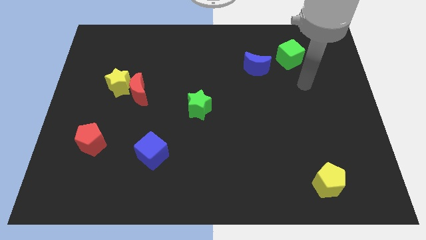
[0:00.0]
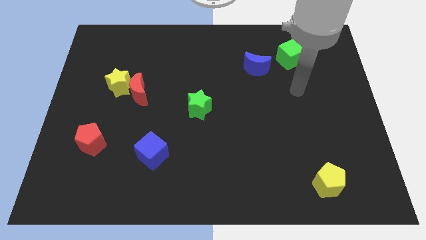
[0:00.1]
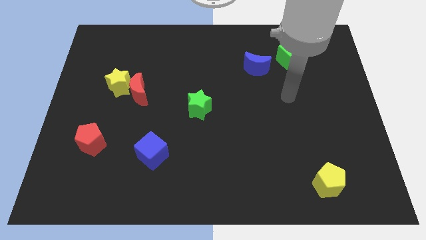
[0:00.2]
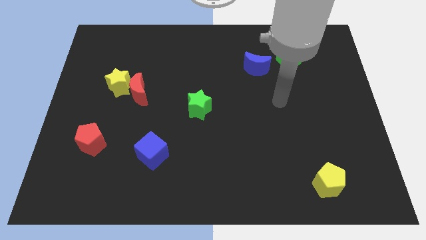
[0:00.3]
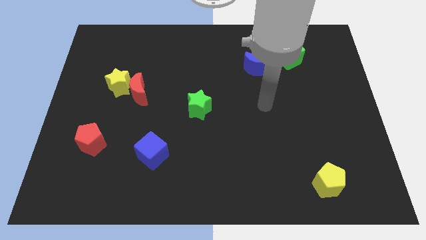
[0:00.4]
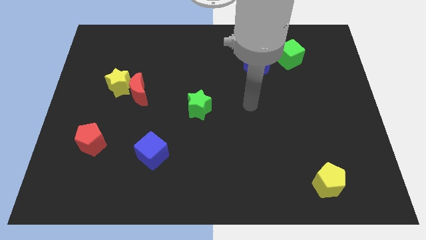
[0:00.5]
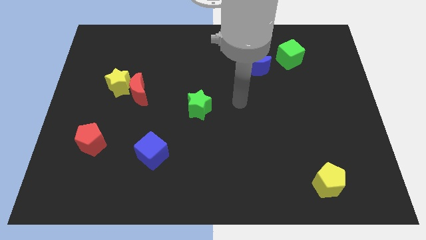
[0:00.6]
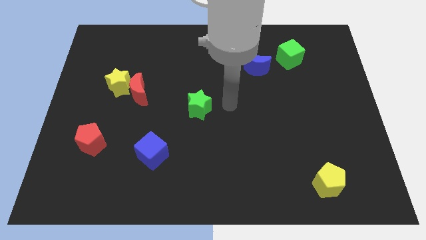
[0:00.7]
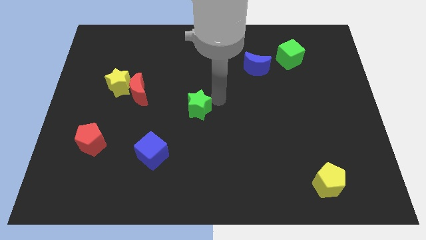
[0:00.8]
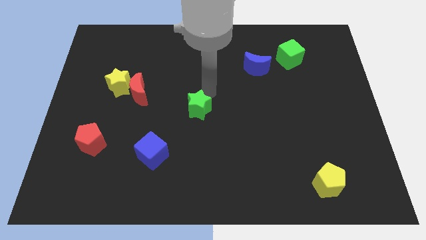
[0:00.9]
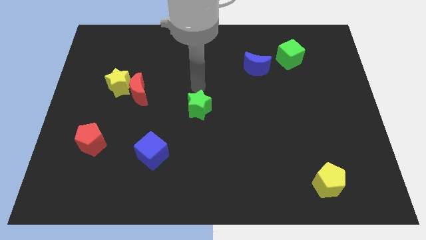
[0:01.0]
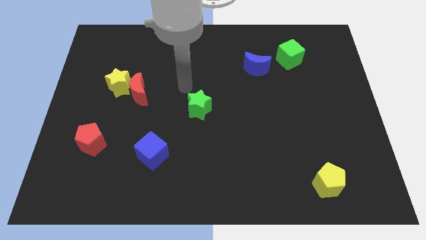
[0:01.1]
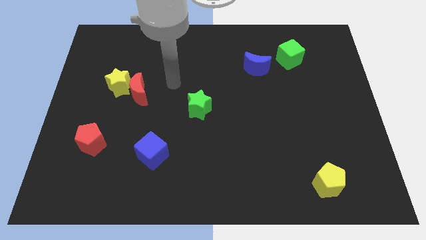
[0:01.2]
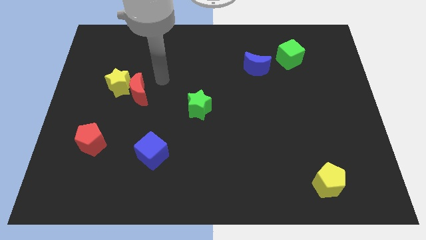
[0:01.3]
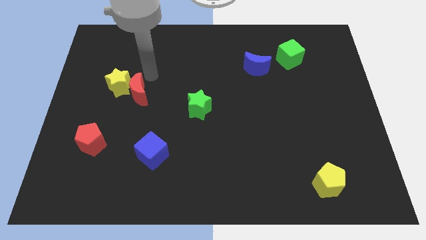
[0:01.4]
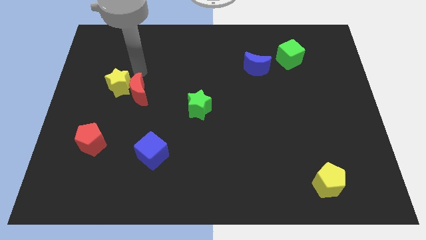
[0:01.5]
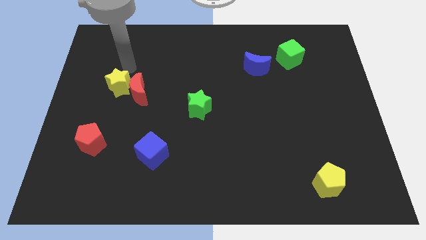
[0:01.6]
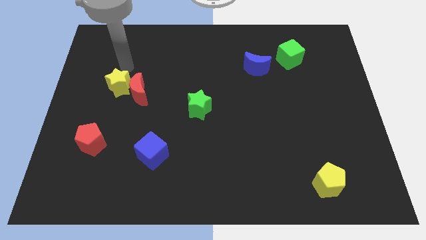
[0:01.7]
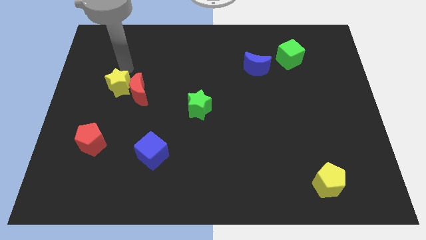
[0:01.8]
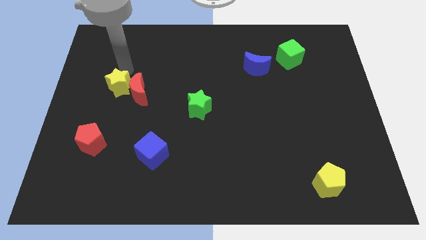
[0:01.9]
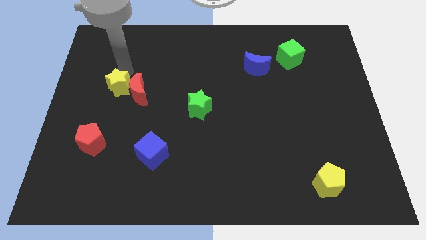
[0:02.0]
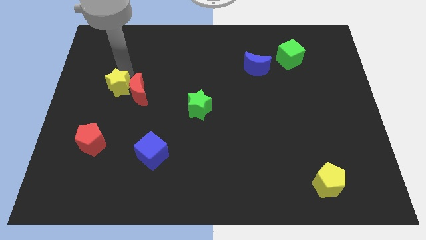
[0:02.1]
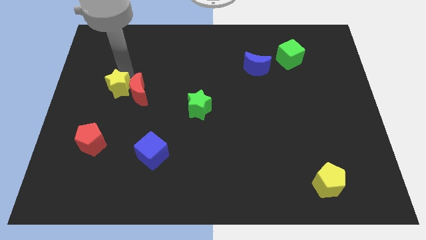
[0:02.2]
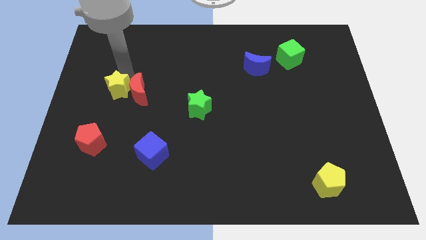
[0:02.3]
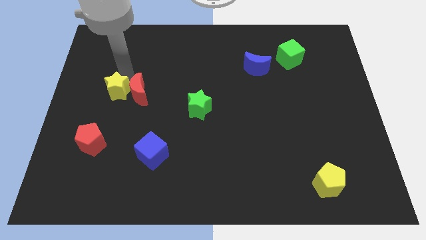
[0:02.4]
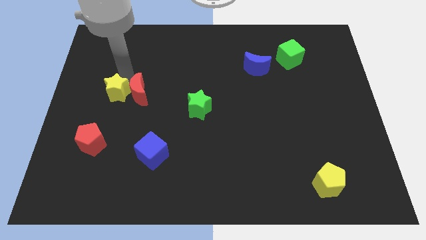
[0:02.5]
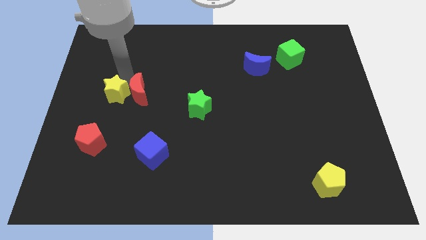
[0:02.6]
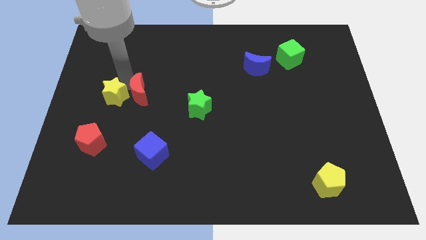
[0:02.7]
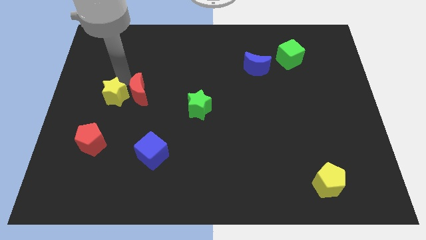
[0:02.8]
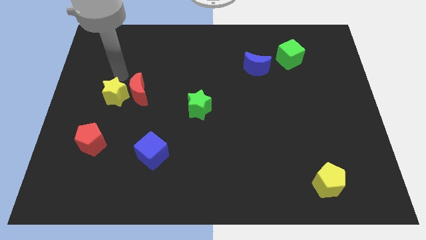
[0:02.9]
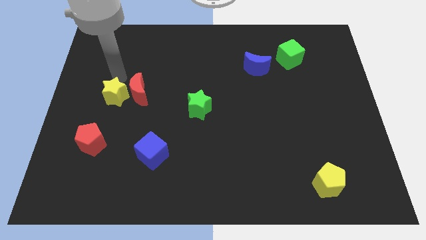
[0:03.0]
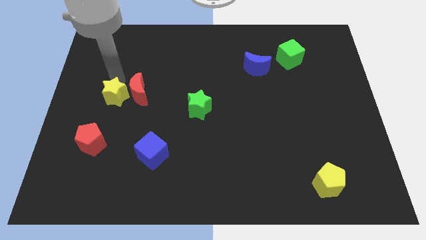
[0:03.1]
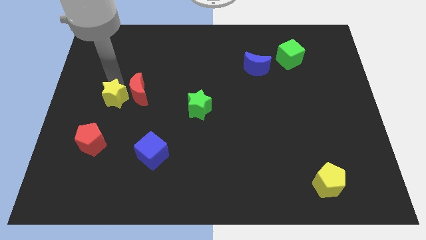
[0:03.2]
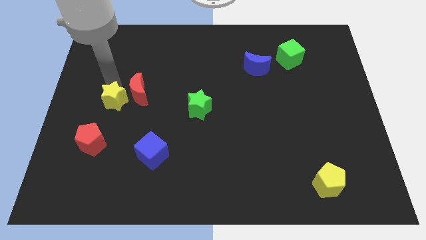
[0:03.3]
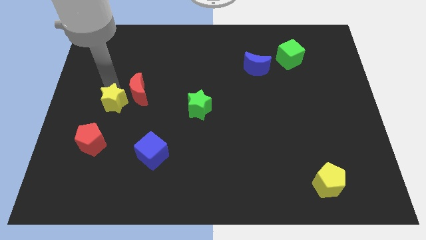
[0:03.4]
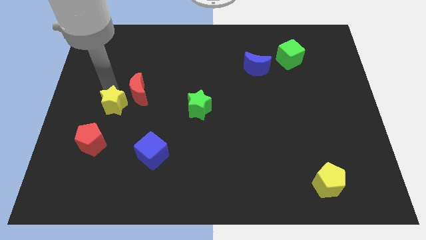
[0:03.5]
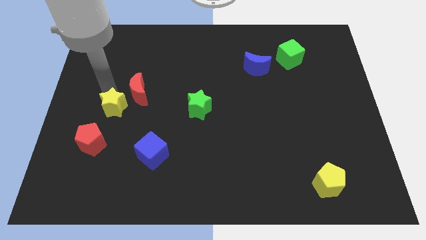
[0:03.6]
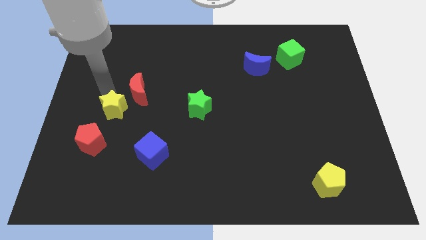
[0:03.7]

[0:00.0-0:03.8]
move the yellow star a bit down

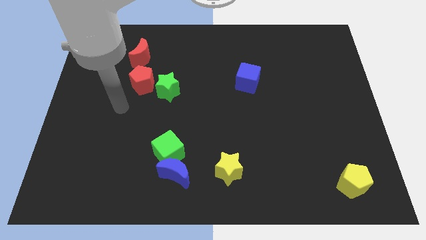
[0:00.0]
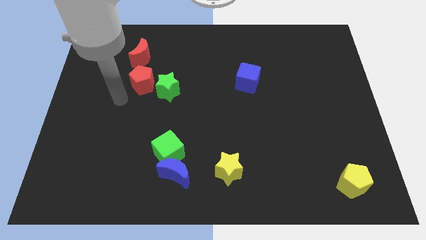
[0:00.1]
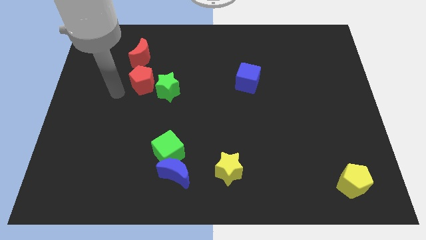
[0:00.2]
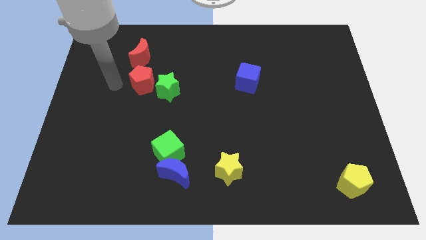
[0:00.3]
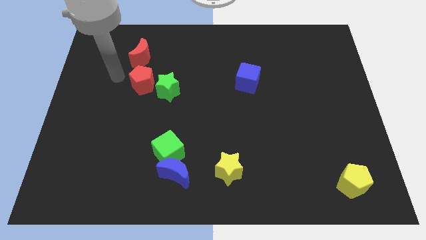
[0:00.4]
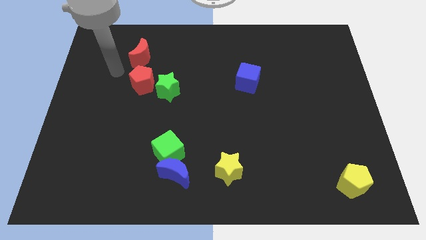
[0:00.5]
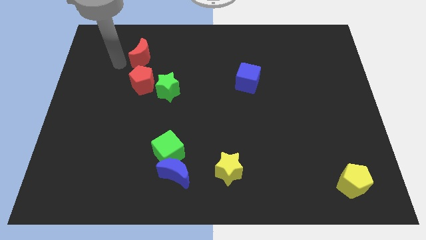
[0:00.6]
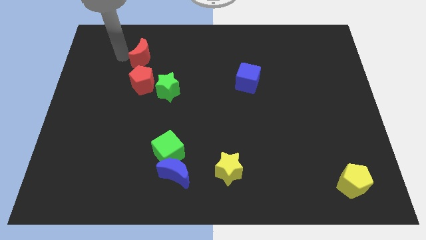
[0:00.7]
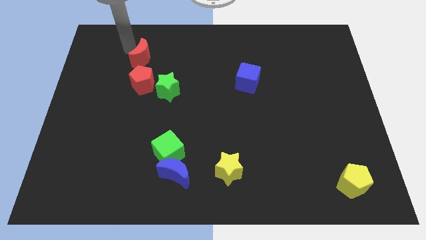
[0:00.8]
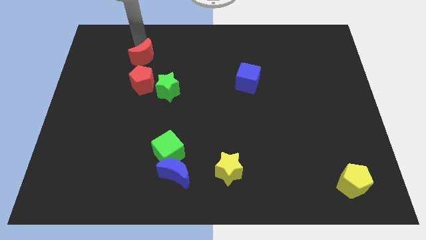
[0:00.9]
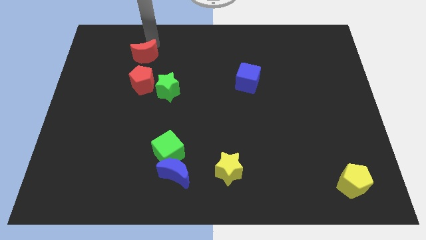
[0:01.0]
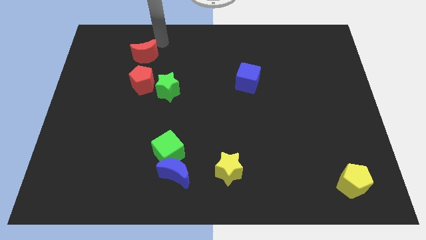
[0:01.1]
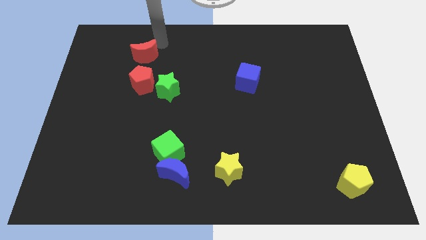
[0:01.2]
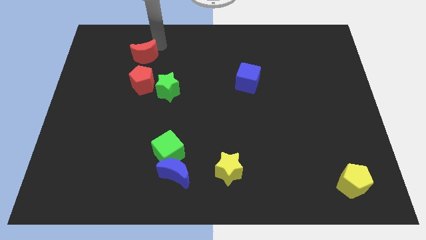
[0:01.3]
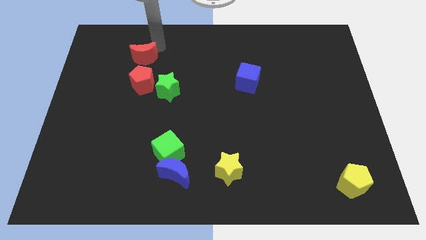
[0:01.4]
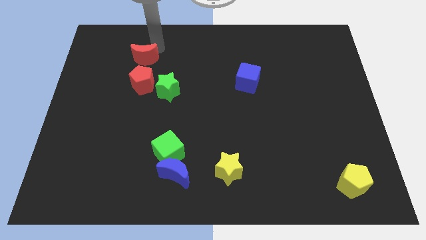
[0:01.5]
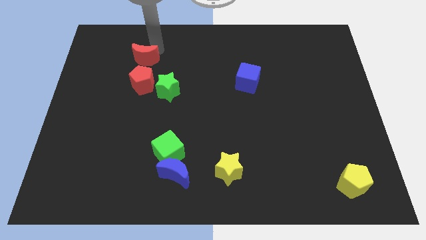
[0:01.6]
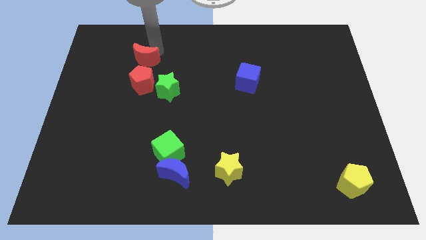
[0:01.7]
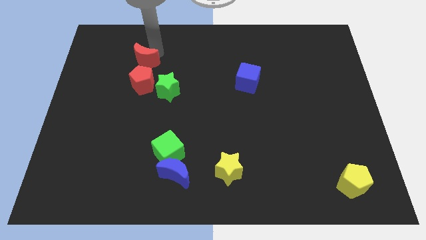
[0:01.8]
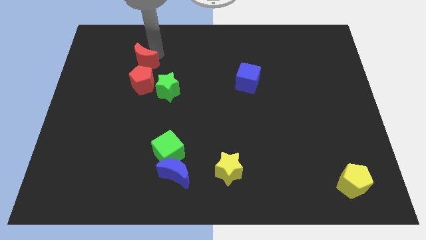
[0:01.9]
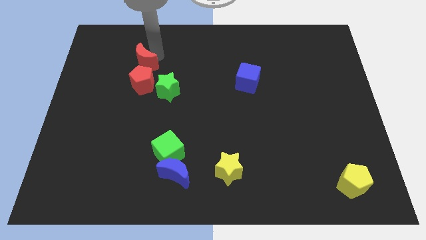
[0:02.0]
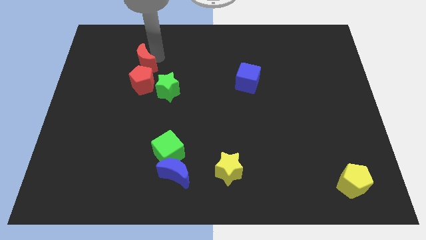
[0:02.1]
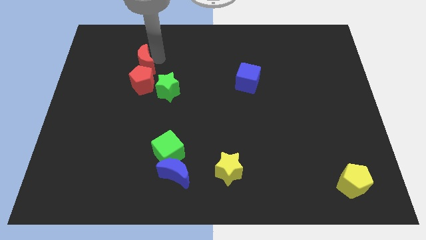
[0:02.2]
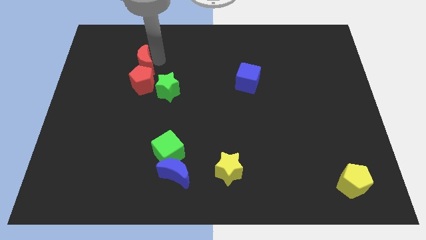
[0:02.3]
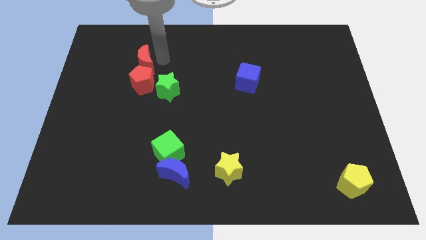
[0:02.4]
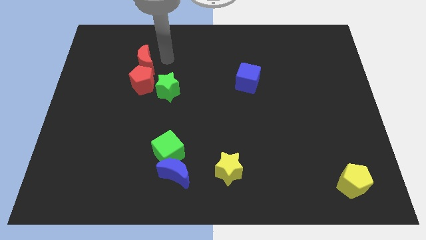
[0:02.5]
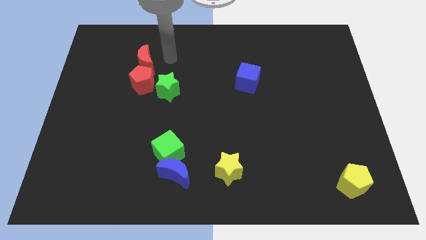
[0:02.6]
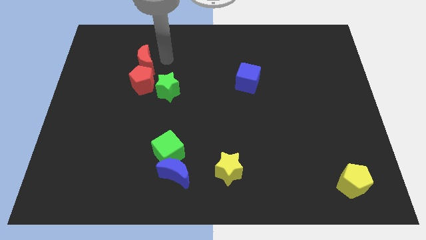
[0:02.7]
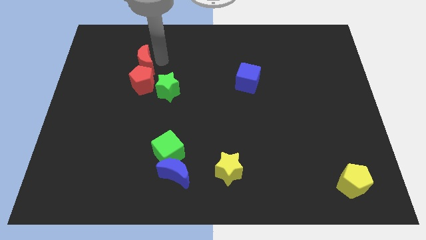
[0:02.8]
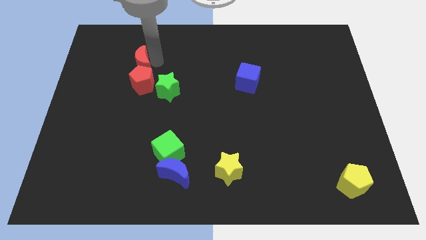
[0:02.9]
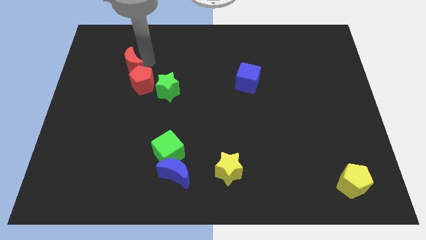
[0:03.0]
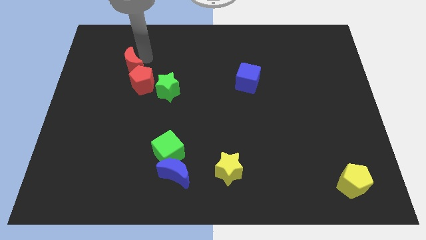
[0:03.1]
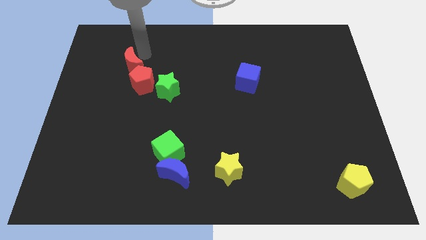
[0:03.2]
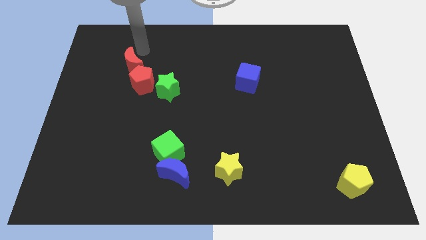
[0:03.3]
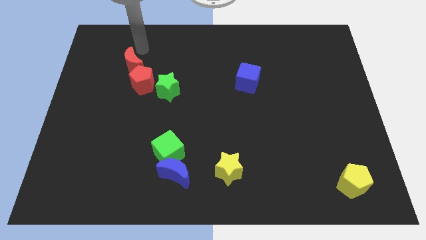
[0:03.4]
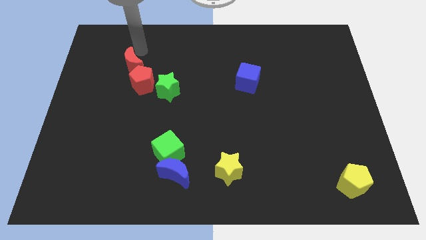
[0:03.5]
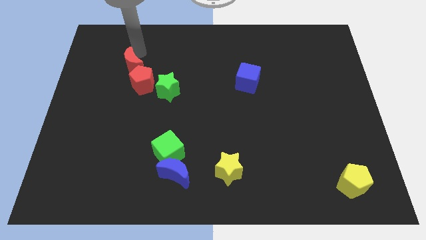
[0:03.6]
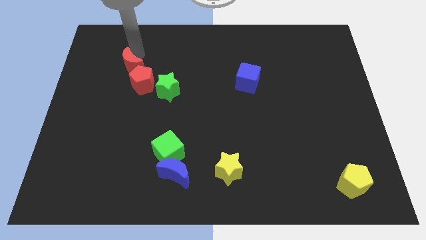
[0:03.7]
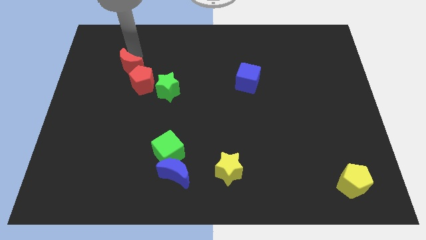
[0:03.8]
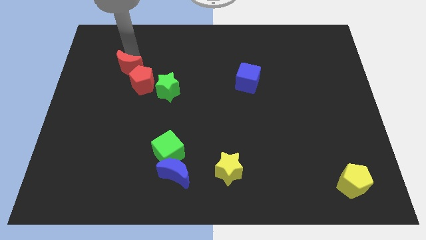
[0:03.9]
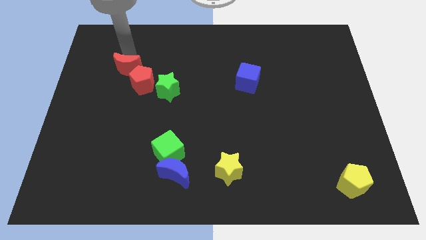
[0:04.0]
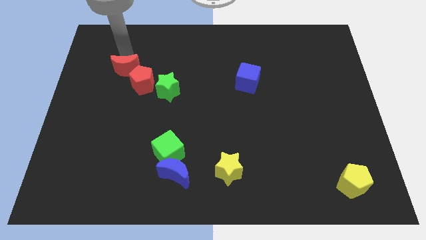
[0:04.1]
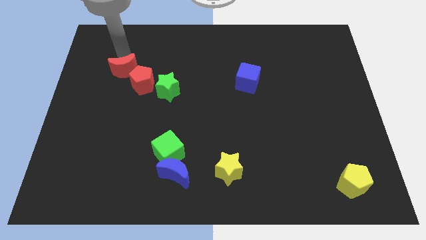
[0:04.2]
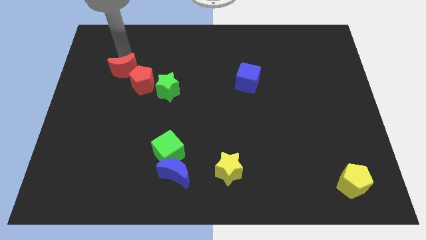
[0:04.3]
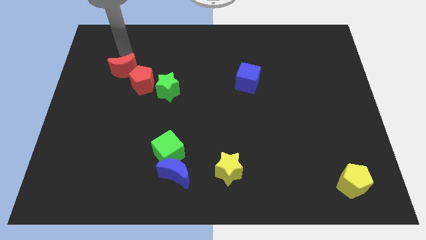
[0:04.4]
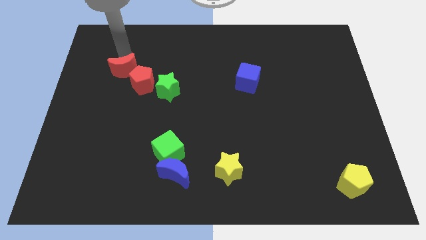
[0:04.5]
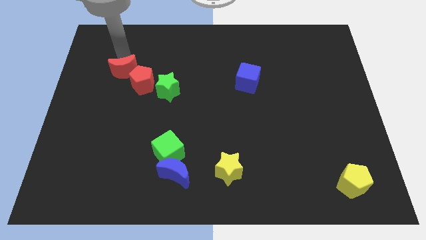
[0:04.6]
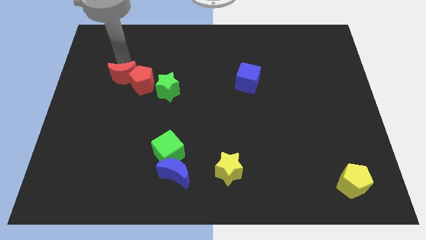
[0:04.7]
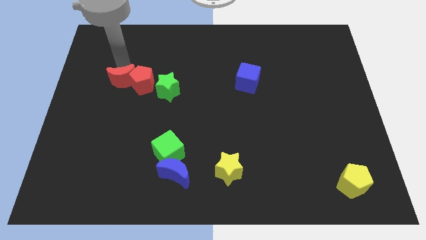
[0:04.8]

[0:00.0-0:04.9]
move the red moon somewhat downwards
